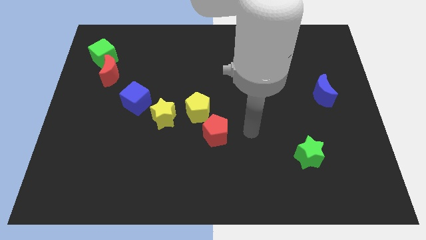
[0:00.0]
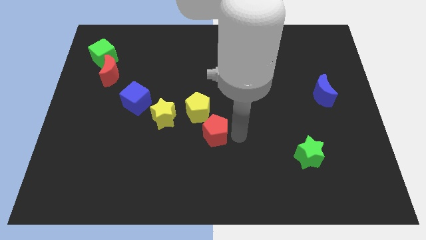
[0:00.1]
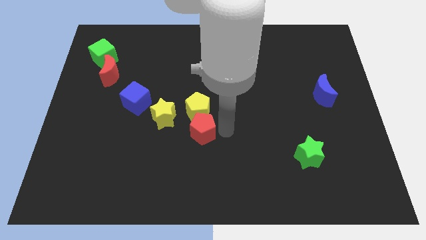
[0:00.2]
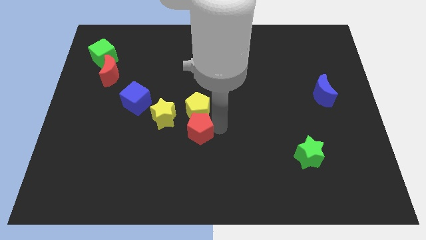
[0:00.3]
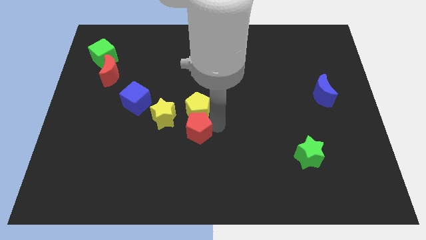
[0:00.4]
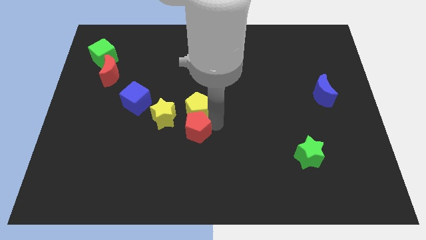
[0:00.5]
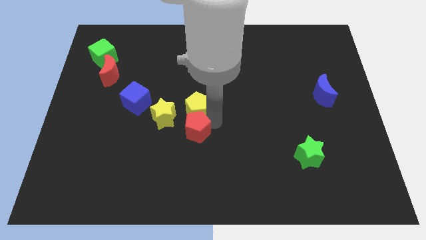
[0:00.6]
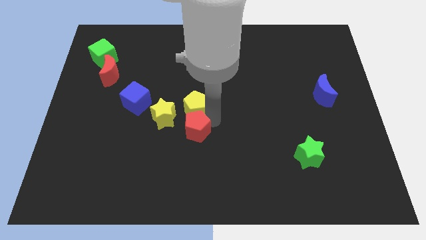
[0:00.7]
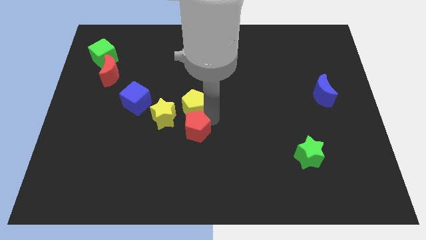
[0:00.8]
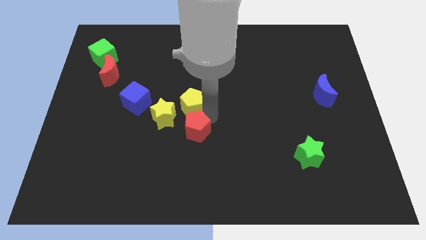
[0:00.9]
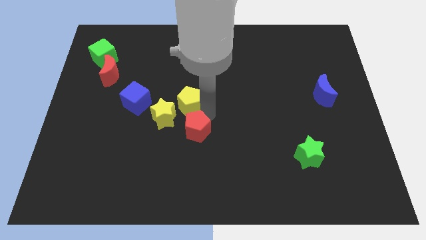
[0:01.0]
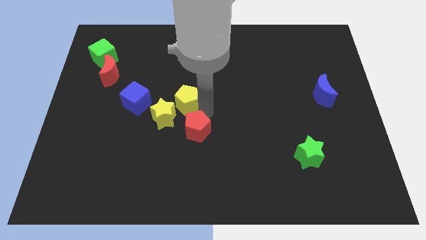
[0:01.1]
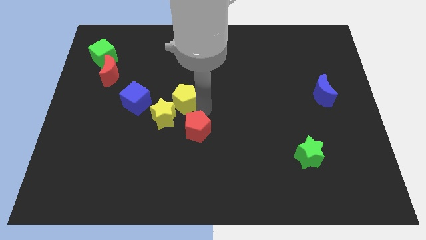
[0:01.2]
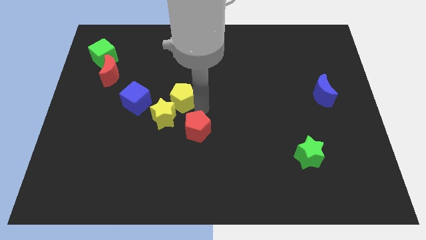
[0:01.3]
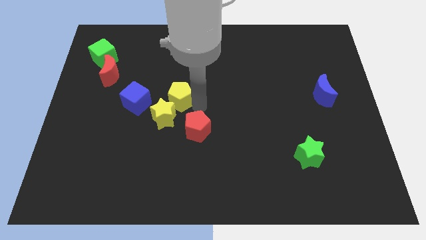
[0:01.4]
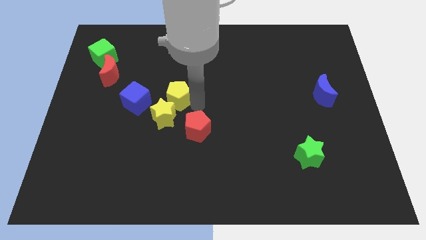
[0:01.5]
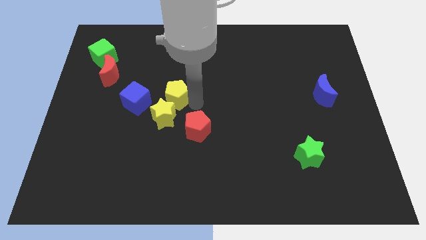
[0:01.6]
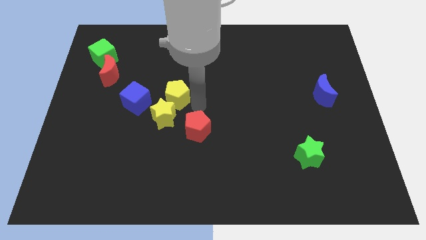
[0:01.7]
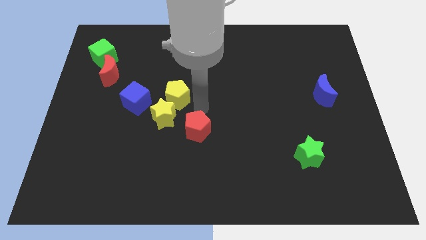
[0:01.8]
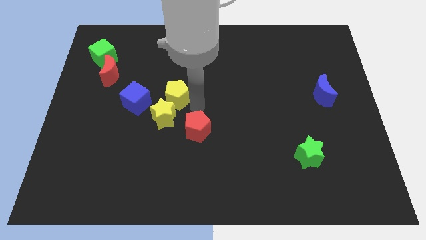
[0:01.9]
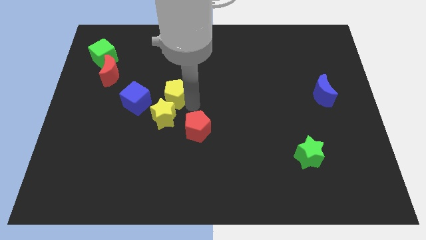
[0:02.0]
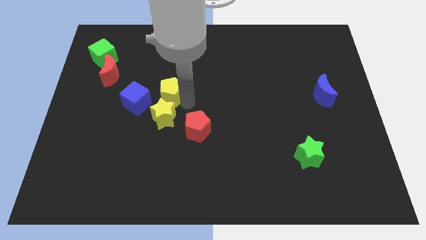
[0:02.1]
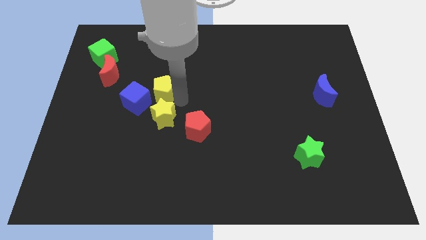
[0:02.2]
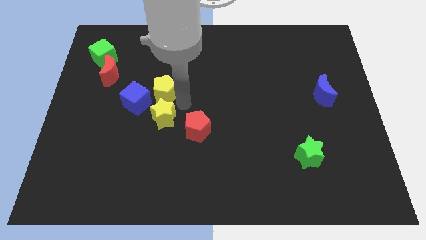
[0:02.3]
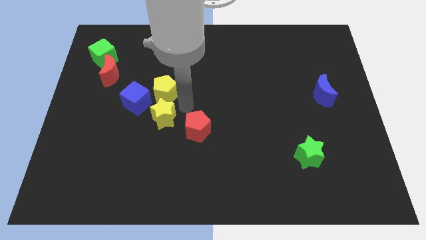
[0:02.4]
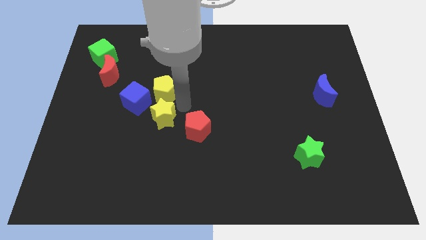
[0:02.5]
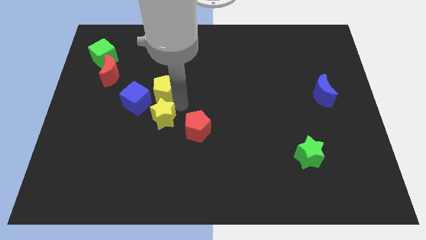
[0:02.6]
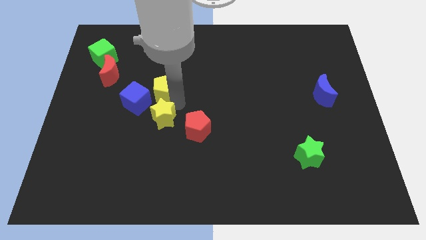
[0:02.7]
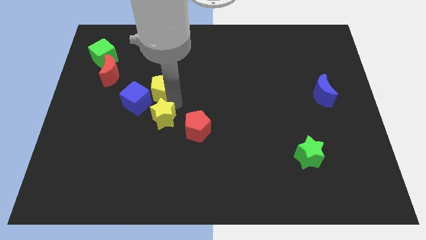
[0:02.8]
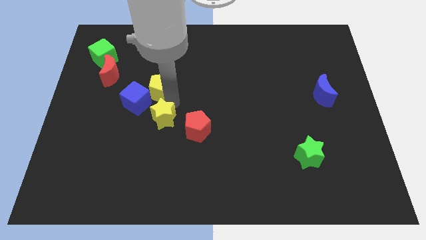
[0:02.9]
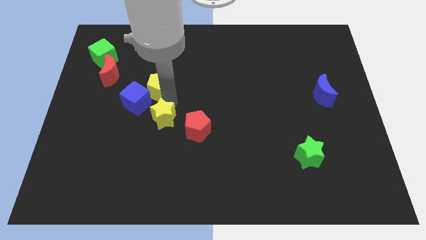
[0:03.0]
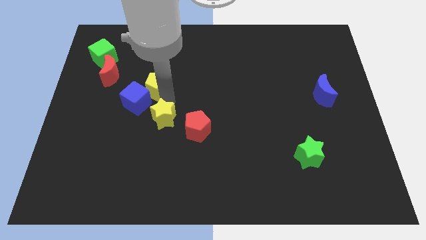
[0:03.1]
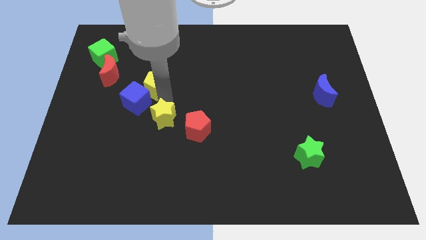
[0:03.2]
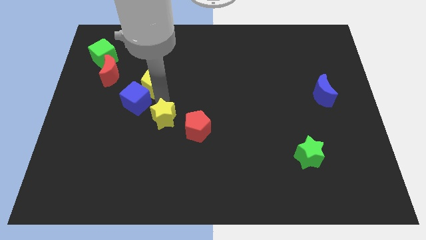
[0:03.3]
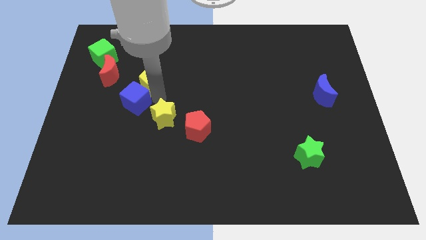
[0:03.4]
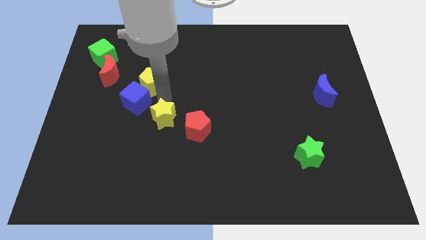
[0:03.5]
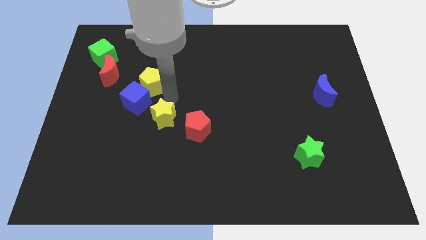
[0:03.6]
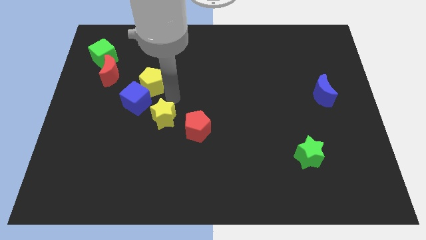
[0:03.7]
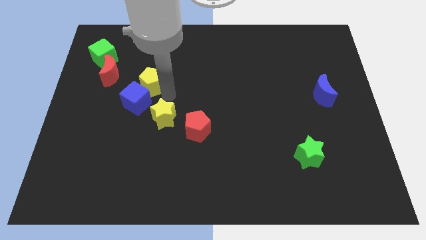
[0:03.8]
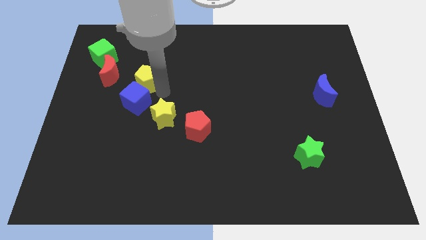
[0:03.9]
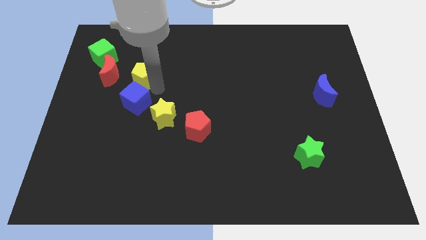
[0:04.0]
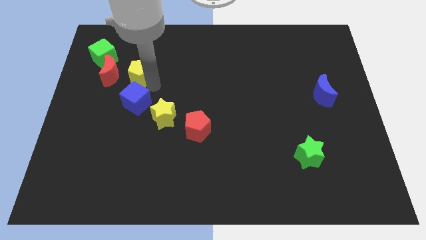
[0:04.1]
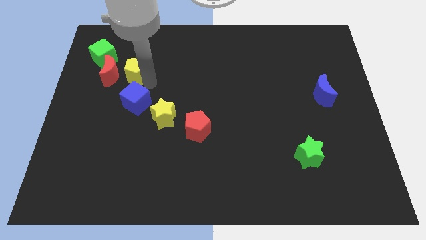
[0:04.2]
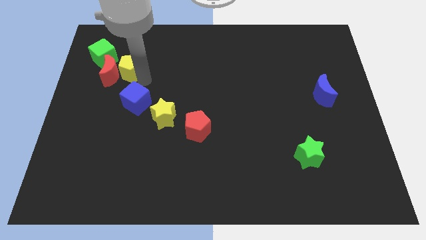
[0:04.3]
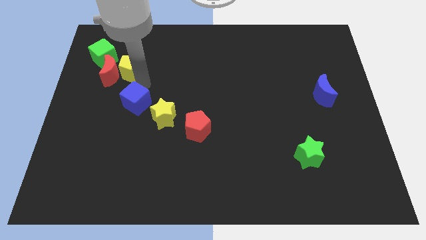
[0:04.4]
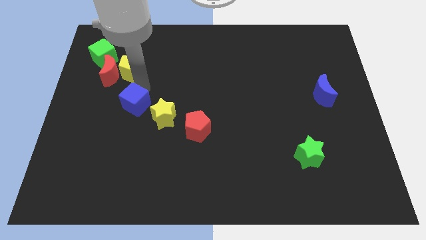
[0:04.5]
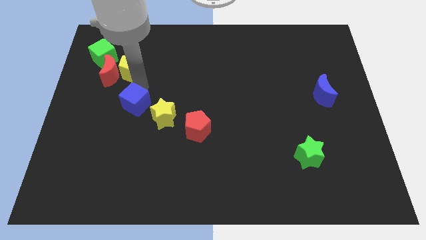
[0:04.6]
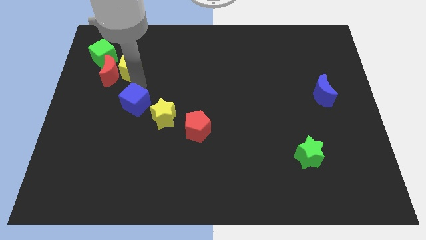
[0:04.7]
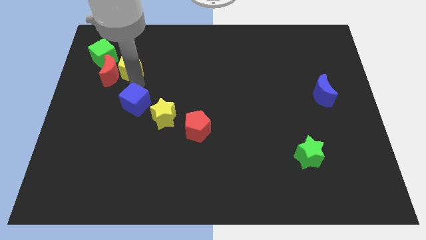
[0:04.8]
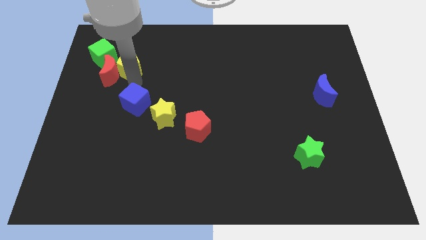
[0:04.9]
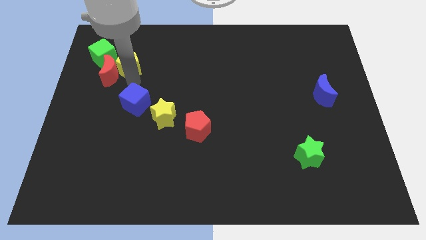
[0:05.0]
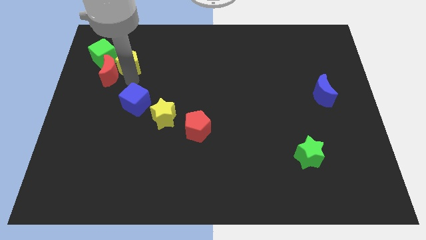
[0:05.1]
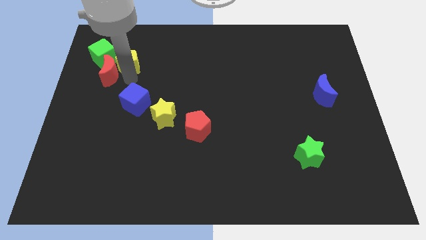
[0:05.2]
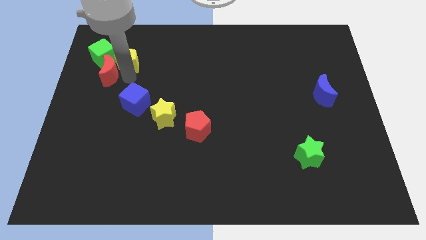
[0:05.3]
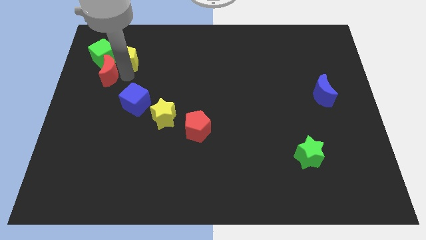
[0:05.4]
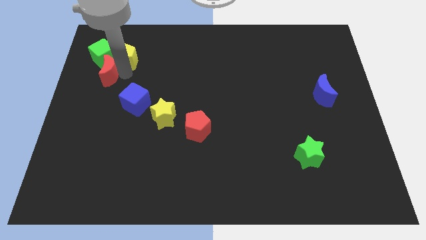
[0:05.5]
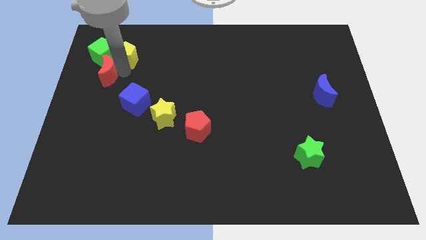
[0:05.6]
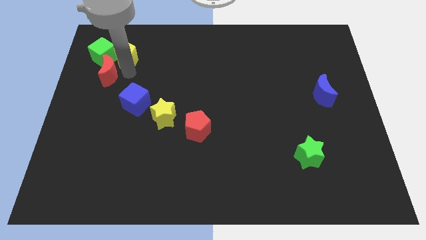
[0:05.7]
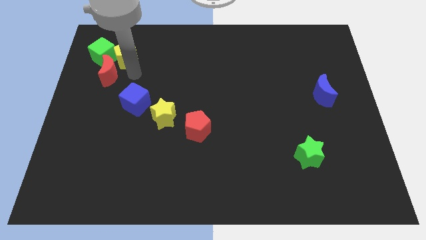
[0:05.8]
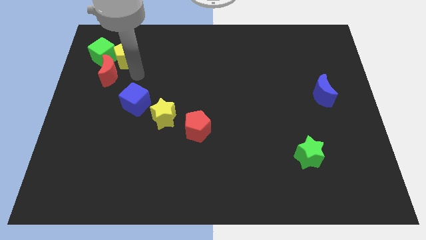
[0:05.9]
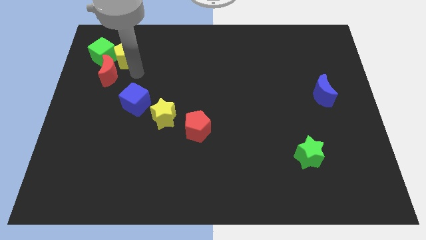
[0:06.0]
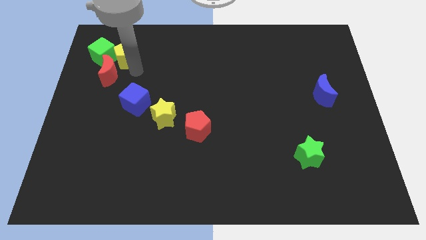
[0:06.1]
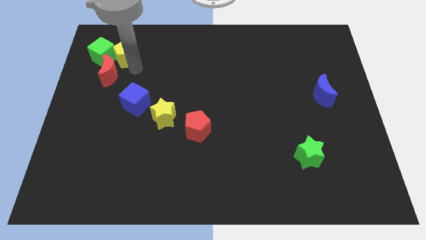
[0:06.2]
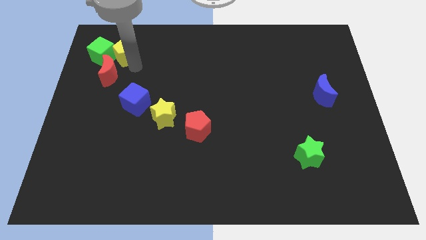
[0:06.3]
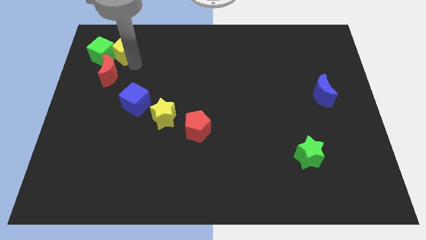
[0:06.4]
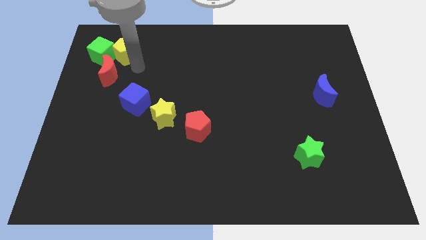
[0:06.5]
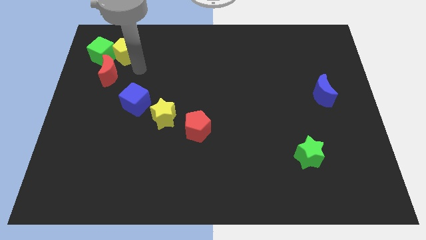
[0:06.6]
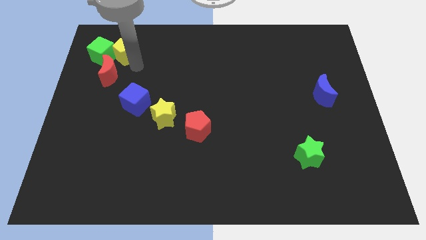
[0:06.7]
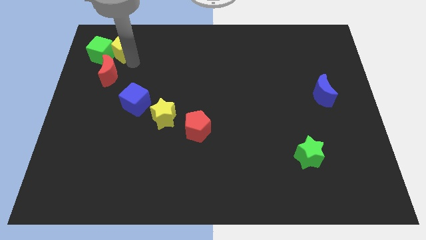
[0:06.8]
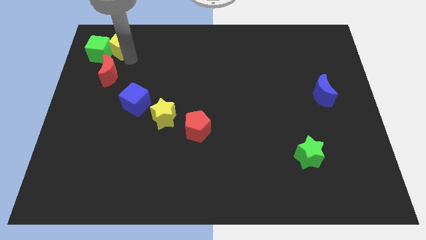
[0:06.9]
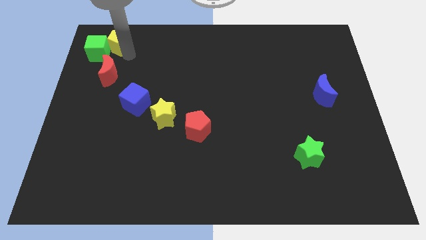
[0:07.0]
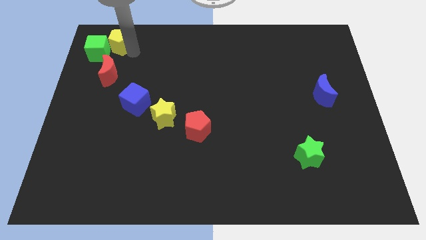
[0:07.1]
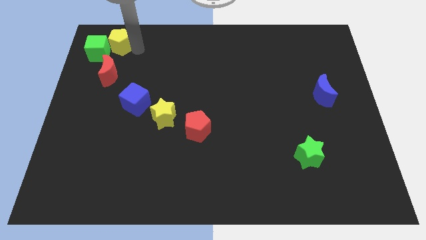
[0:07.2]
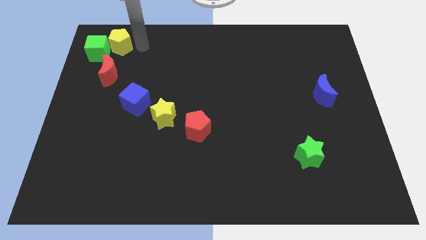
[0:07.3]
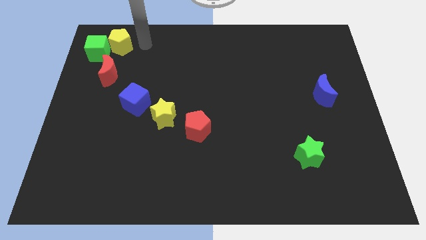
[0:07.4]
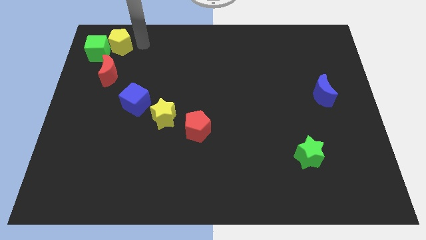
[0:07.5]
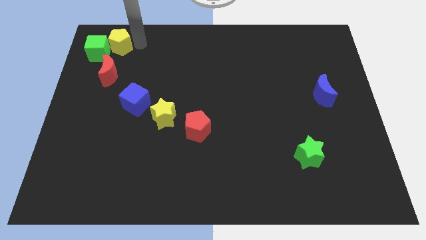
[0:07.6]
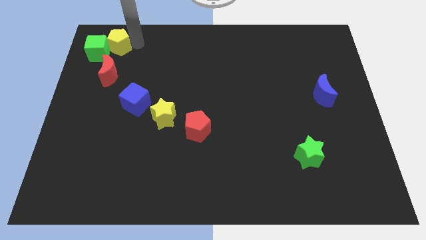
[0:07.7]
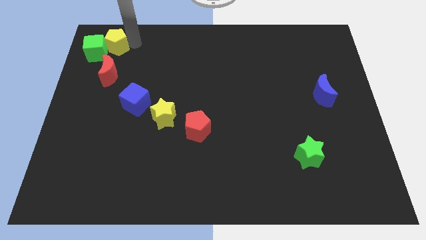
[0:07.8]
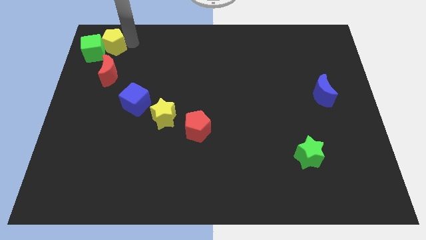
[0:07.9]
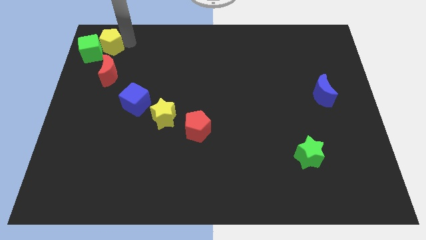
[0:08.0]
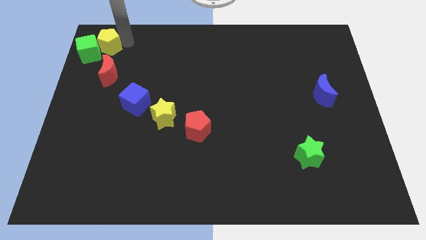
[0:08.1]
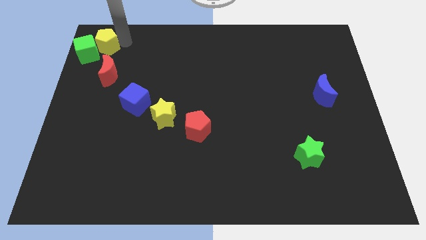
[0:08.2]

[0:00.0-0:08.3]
push the yellow pentagon to the upper left corner

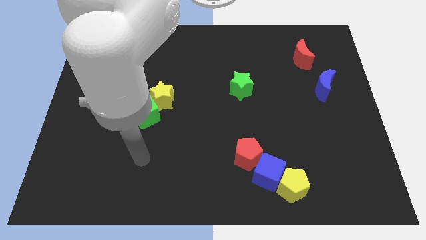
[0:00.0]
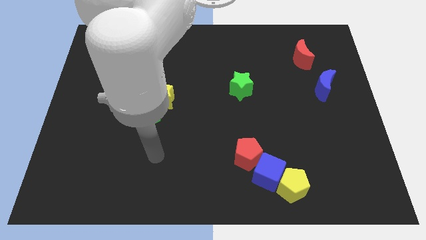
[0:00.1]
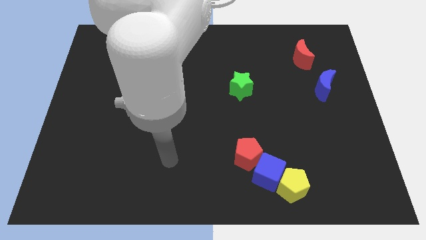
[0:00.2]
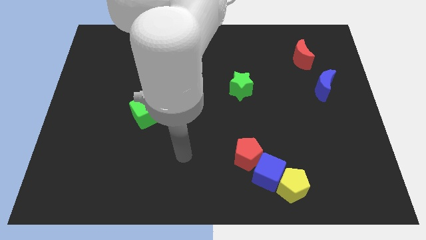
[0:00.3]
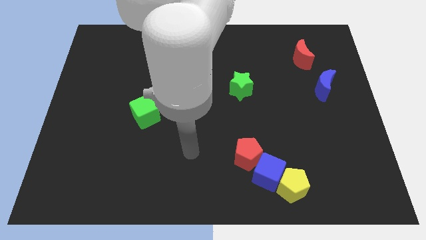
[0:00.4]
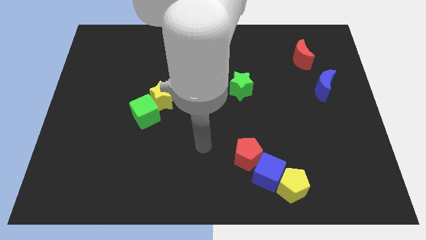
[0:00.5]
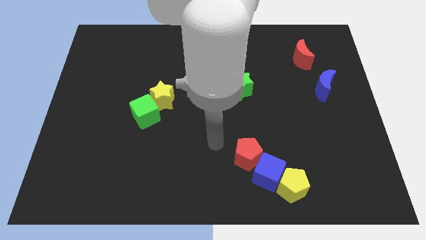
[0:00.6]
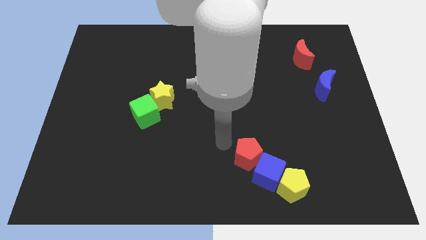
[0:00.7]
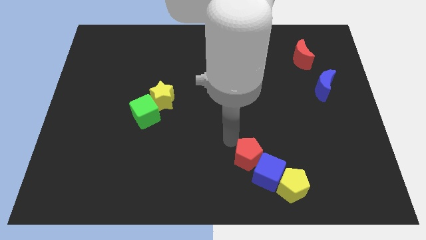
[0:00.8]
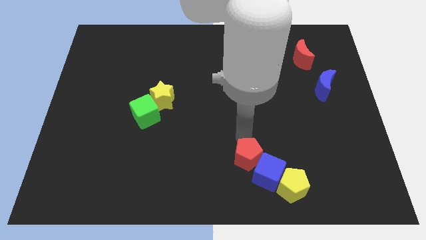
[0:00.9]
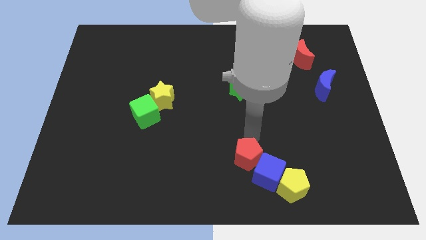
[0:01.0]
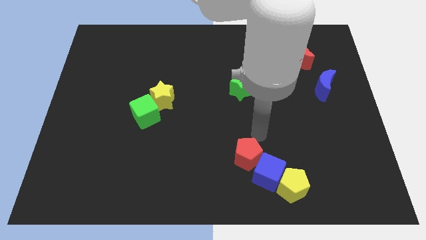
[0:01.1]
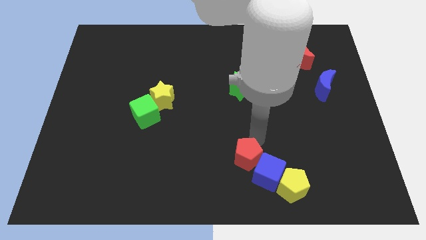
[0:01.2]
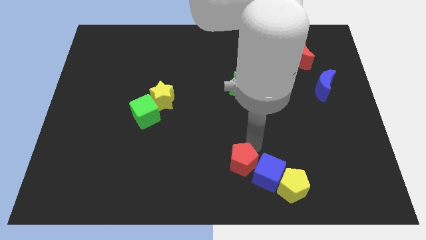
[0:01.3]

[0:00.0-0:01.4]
put the red pentagon to the bottom
